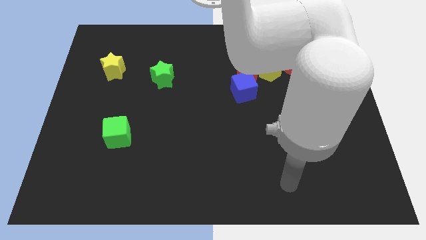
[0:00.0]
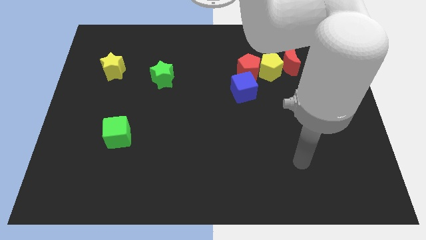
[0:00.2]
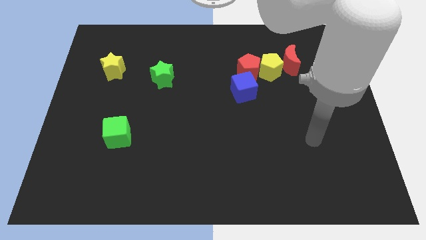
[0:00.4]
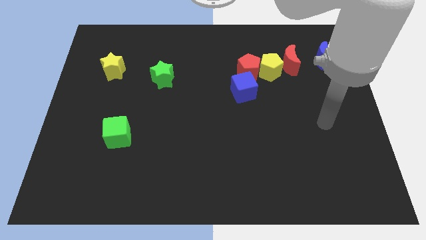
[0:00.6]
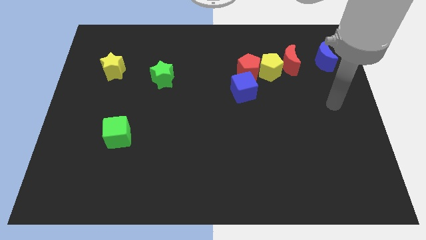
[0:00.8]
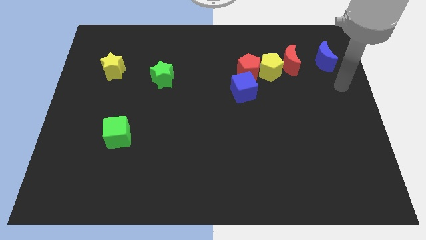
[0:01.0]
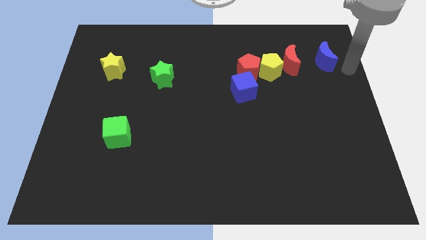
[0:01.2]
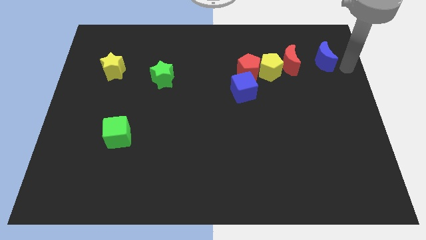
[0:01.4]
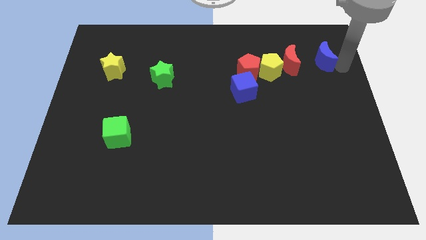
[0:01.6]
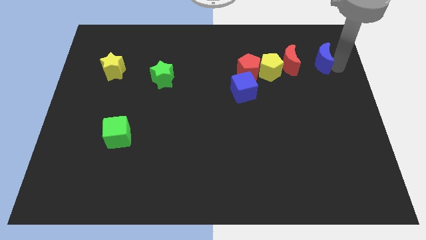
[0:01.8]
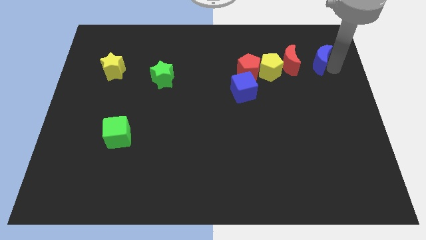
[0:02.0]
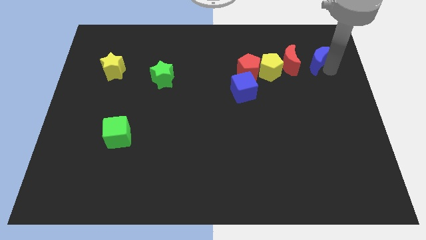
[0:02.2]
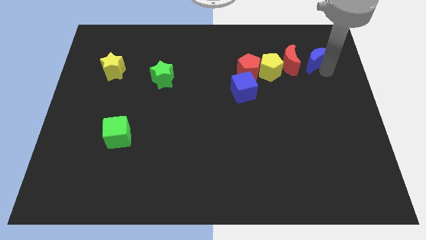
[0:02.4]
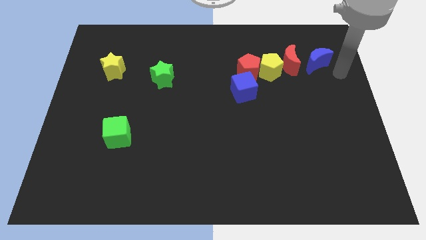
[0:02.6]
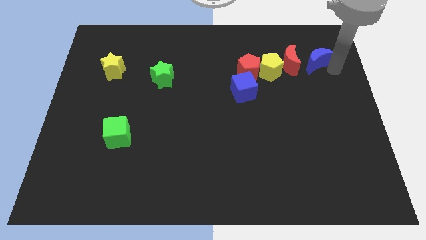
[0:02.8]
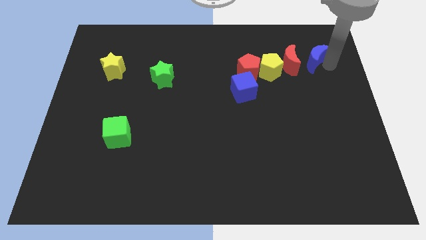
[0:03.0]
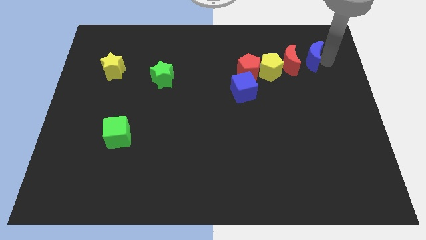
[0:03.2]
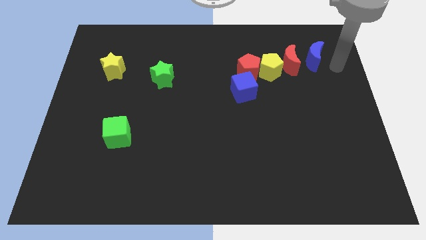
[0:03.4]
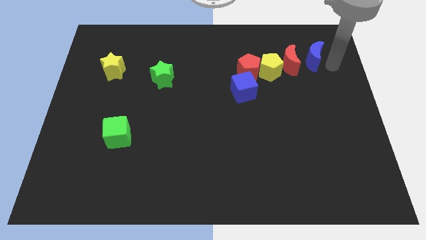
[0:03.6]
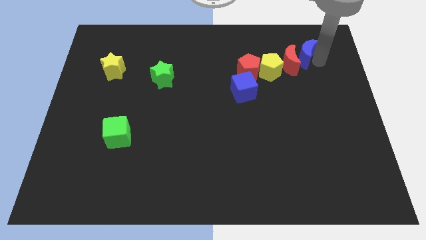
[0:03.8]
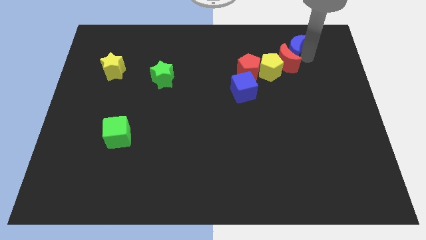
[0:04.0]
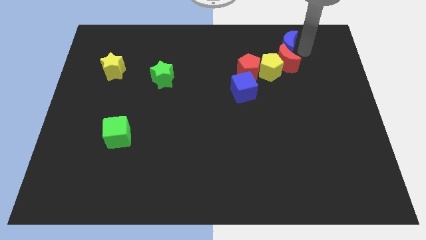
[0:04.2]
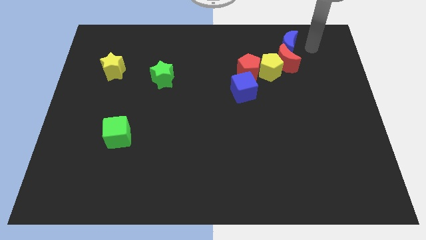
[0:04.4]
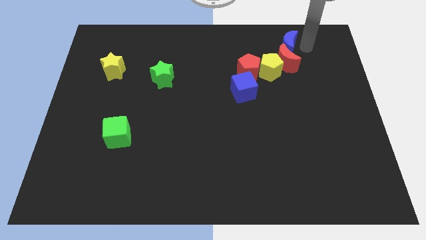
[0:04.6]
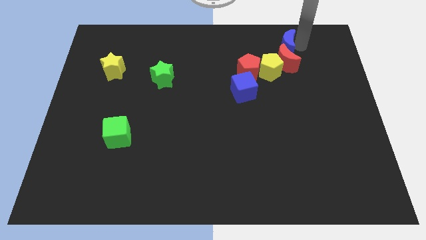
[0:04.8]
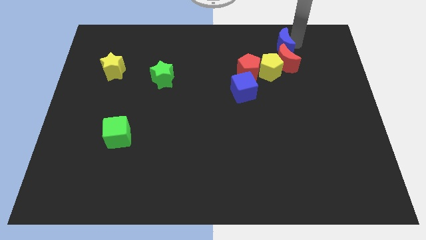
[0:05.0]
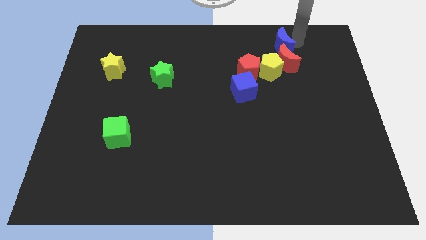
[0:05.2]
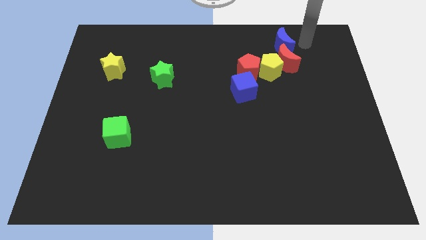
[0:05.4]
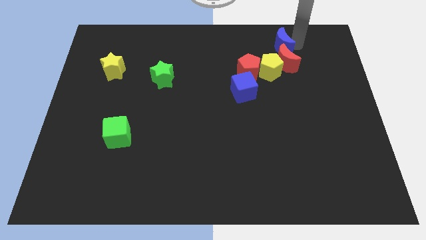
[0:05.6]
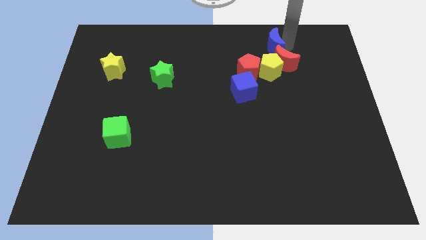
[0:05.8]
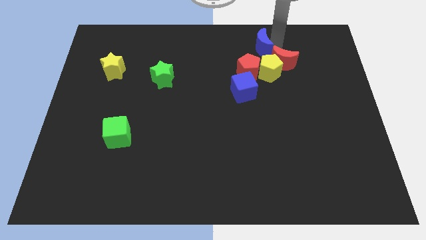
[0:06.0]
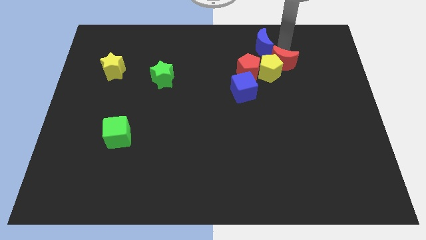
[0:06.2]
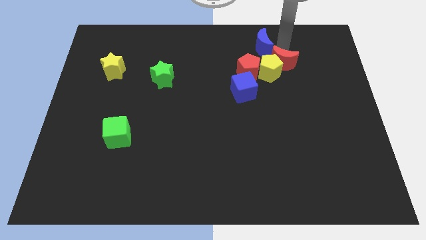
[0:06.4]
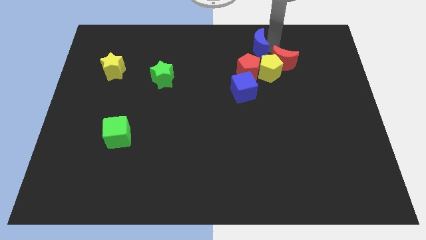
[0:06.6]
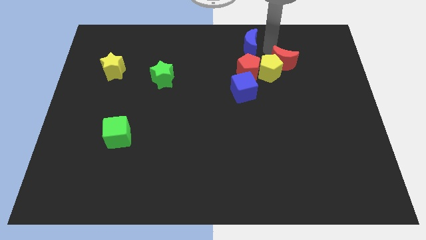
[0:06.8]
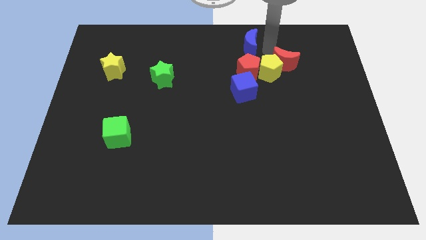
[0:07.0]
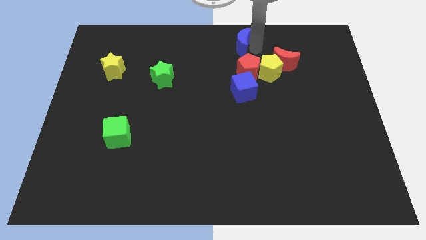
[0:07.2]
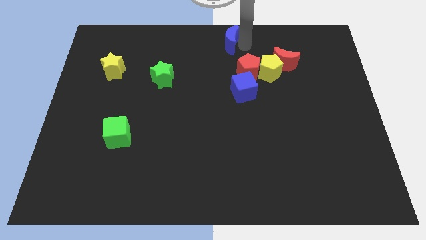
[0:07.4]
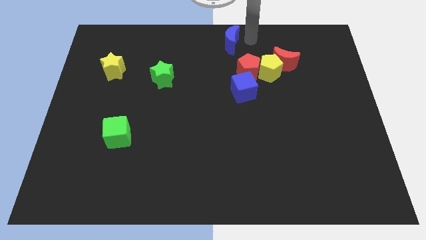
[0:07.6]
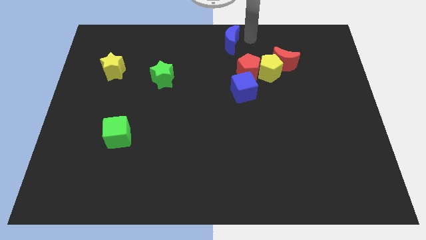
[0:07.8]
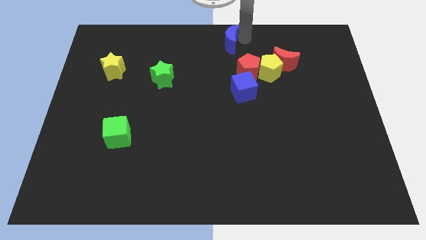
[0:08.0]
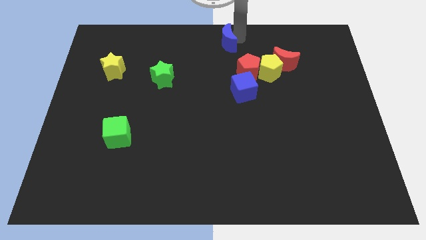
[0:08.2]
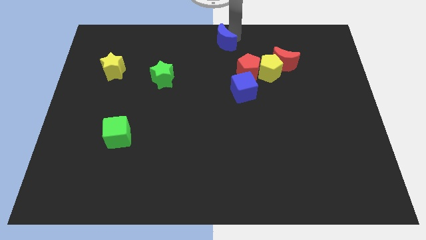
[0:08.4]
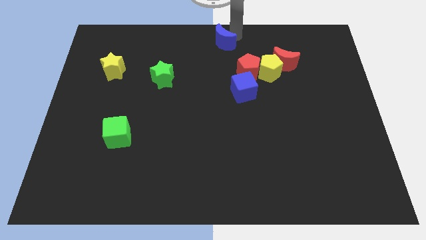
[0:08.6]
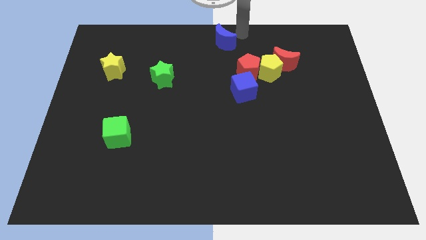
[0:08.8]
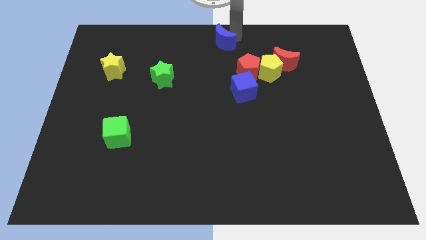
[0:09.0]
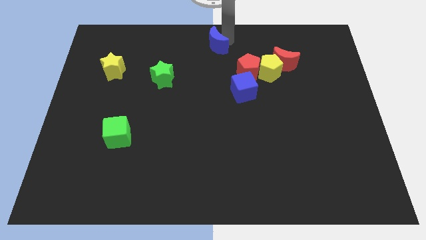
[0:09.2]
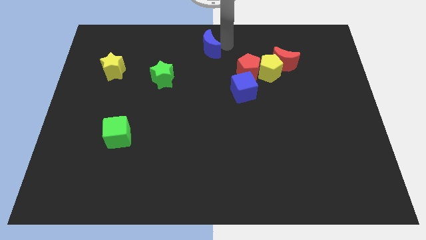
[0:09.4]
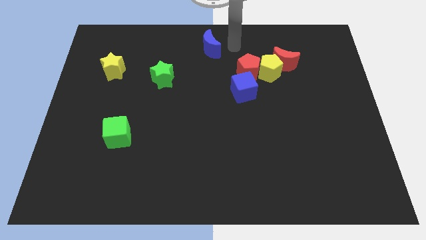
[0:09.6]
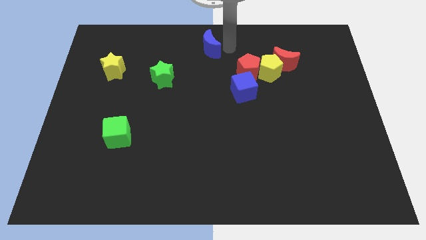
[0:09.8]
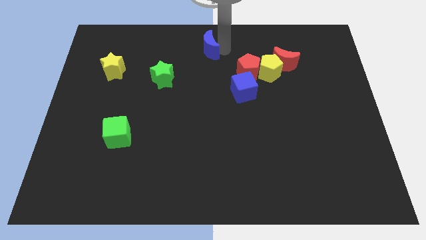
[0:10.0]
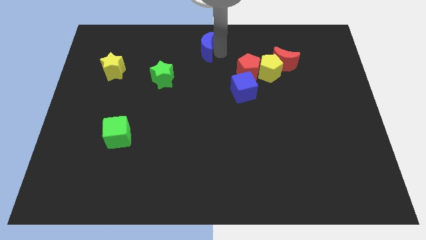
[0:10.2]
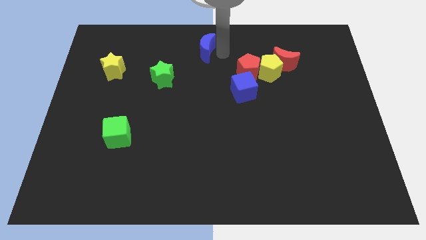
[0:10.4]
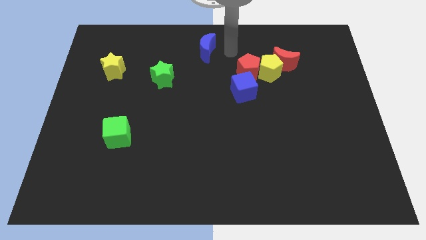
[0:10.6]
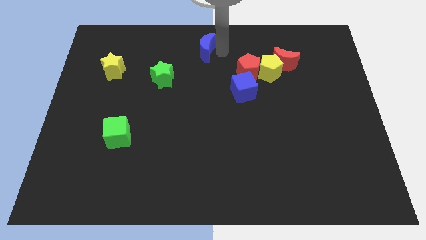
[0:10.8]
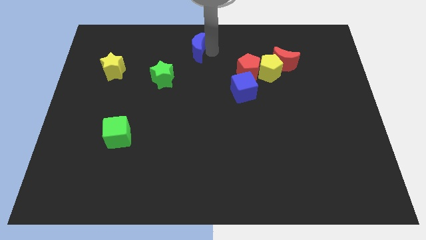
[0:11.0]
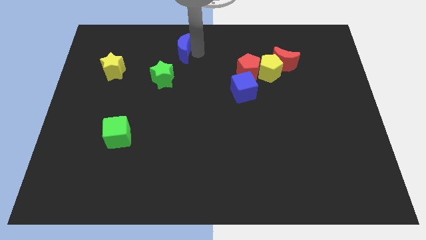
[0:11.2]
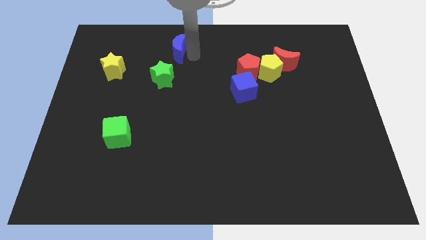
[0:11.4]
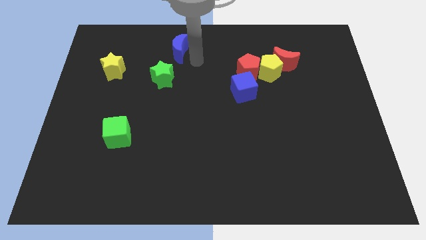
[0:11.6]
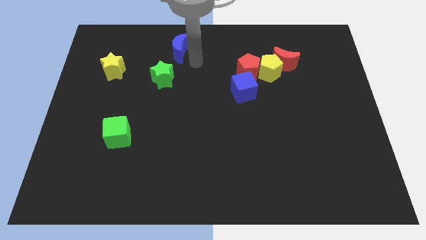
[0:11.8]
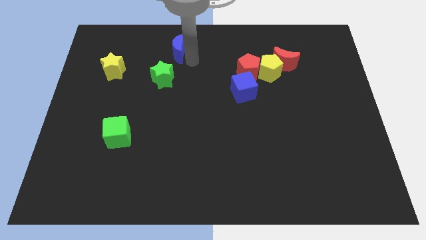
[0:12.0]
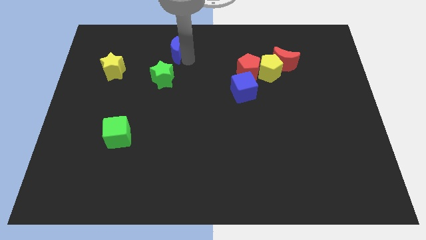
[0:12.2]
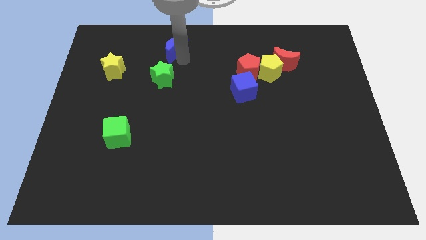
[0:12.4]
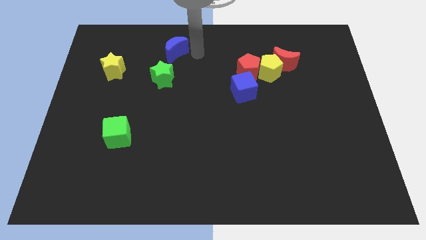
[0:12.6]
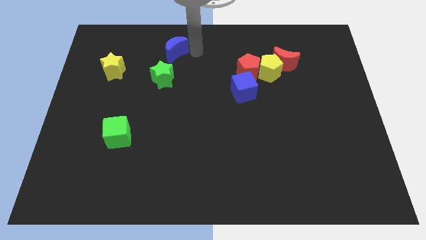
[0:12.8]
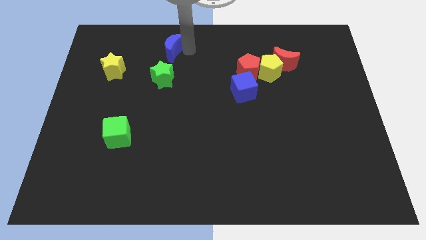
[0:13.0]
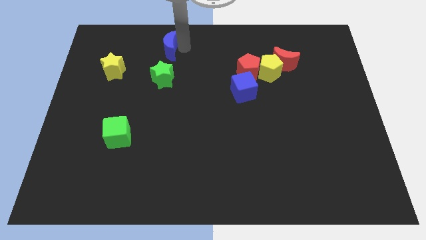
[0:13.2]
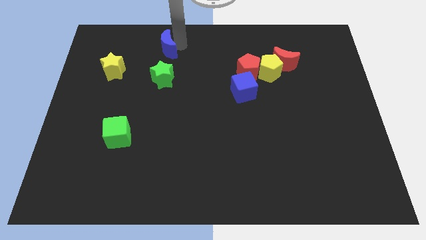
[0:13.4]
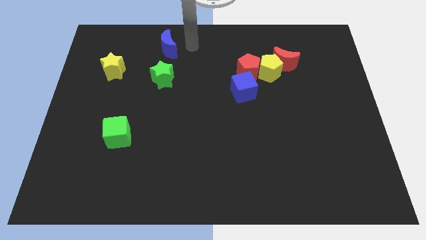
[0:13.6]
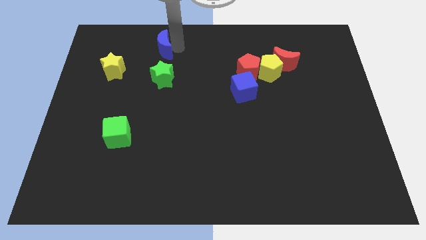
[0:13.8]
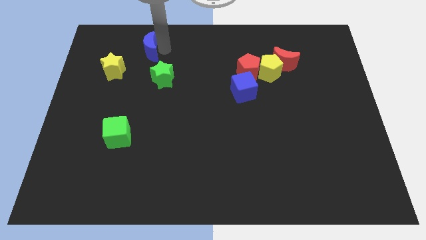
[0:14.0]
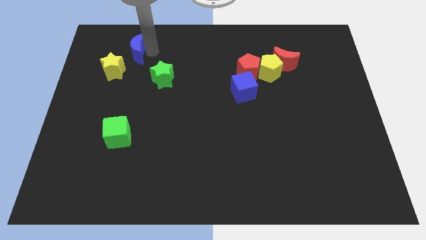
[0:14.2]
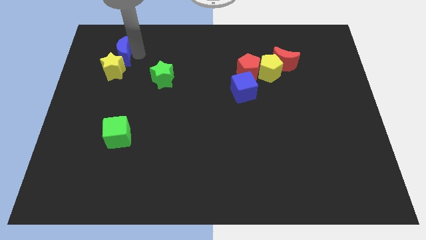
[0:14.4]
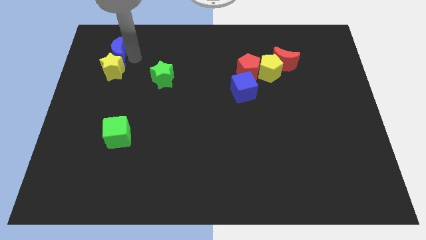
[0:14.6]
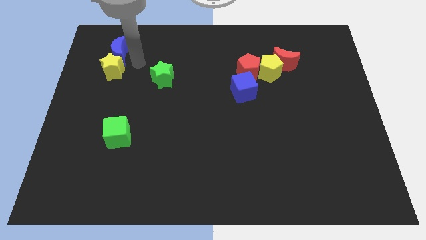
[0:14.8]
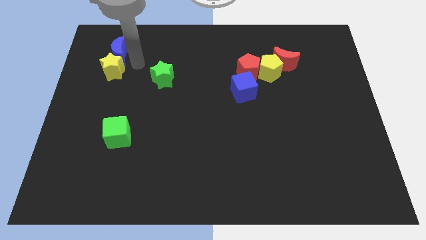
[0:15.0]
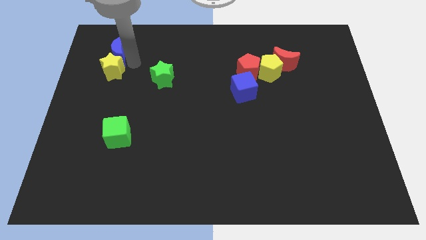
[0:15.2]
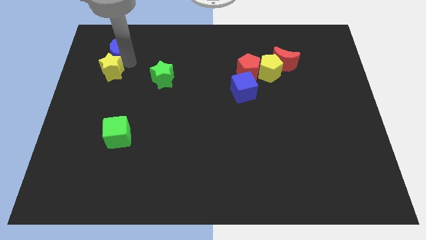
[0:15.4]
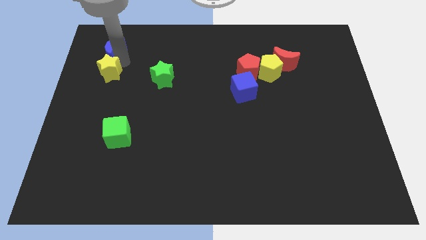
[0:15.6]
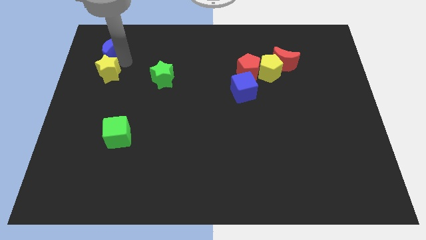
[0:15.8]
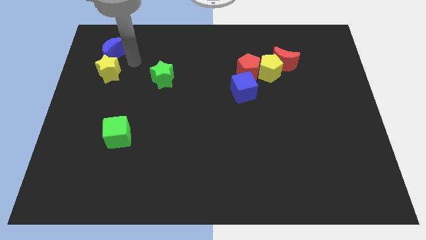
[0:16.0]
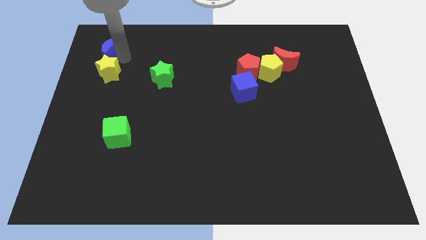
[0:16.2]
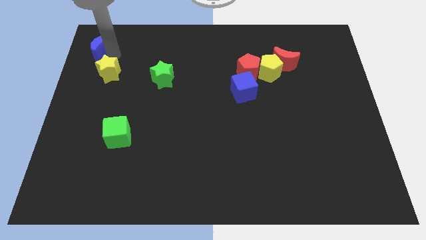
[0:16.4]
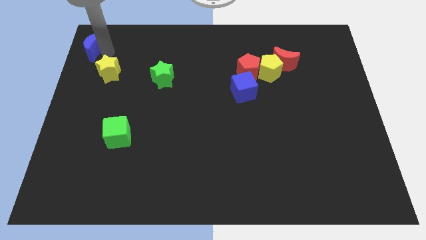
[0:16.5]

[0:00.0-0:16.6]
slide the blue moon to the upper left corner
